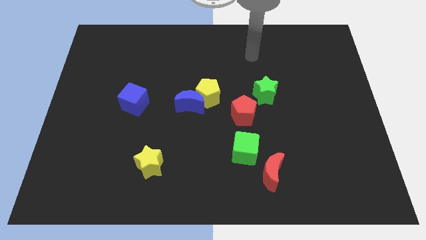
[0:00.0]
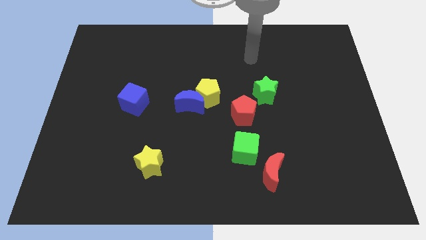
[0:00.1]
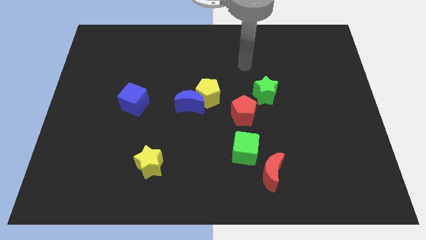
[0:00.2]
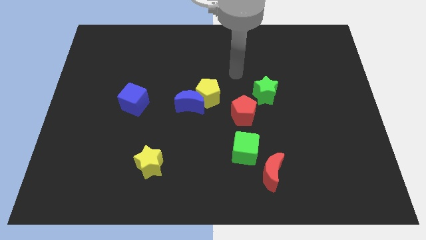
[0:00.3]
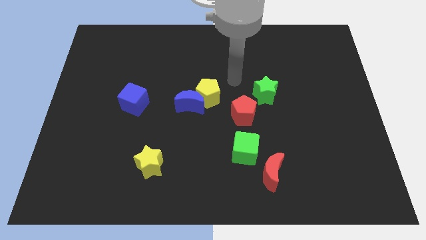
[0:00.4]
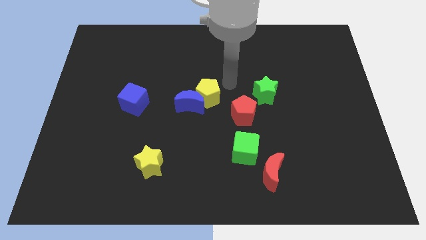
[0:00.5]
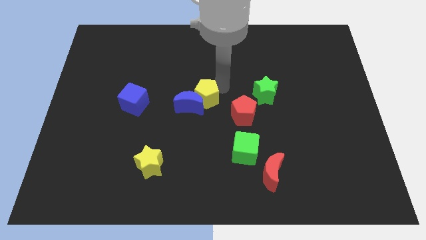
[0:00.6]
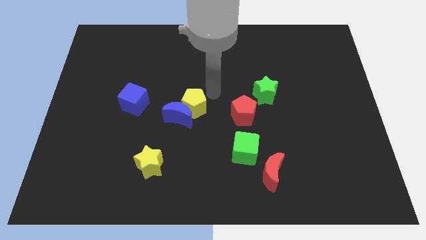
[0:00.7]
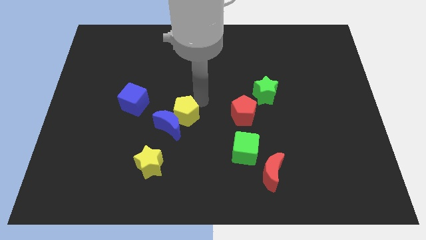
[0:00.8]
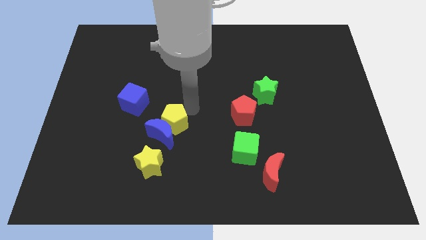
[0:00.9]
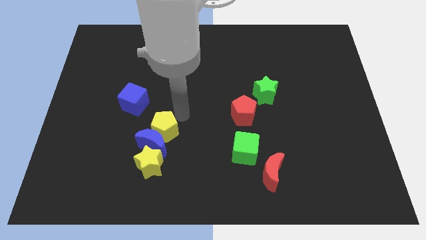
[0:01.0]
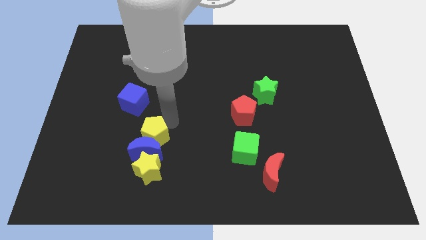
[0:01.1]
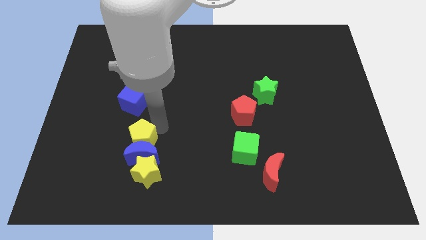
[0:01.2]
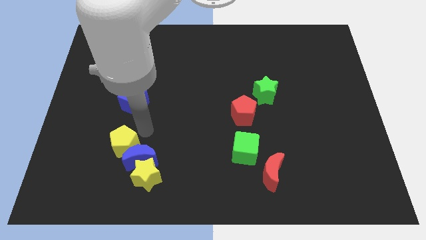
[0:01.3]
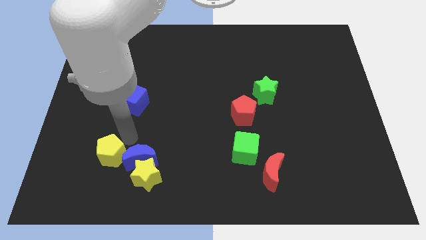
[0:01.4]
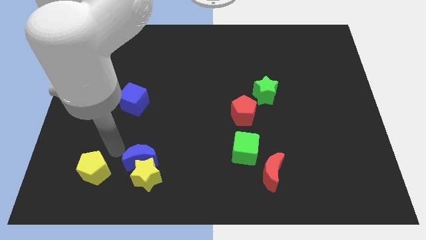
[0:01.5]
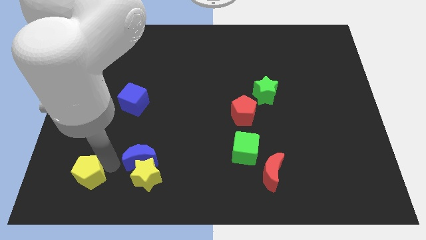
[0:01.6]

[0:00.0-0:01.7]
pull the blue moon apart from the yellow pentagon

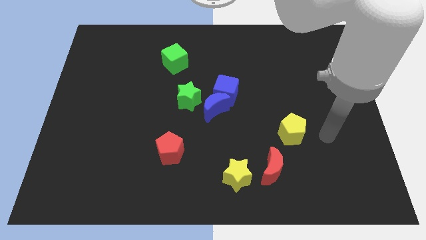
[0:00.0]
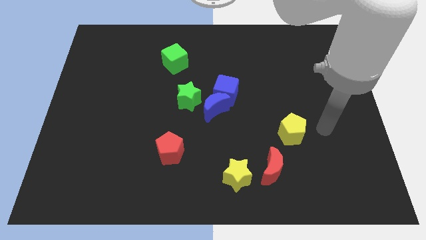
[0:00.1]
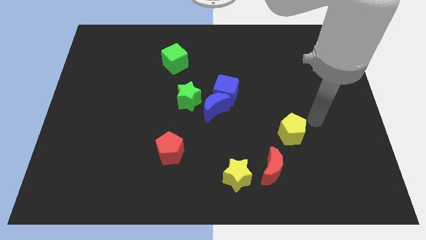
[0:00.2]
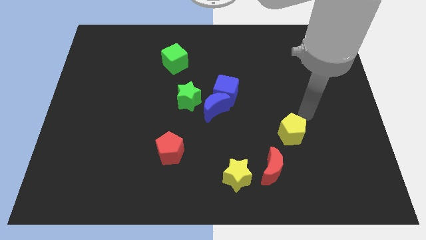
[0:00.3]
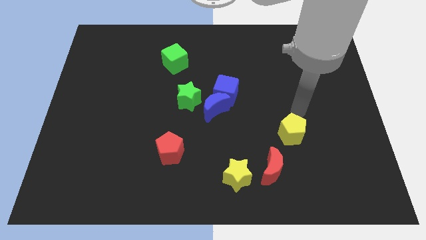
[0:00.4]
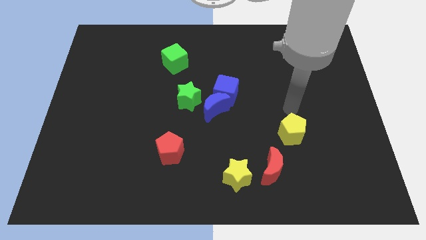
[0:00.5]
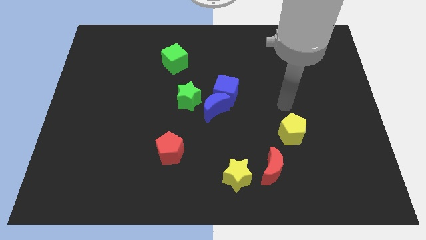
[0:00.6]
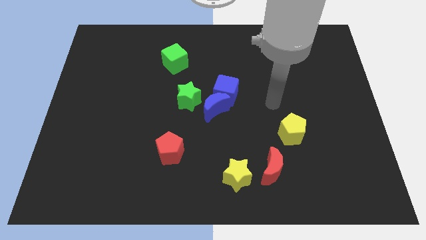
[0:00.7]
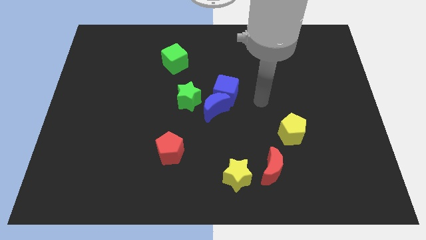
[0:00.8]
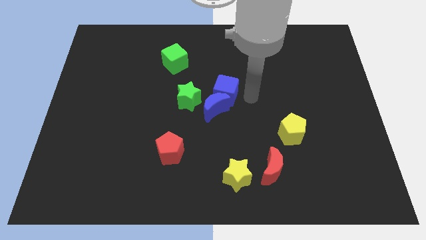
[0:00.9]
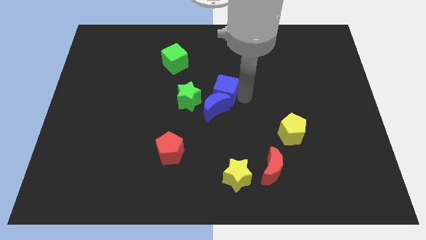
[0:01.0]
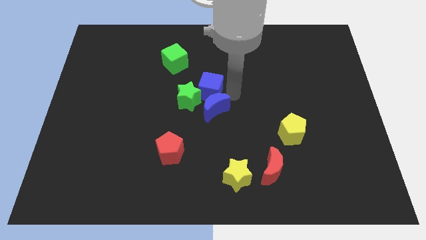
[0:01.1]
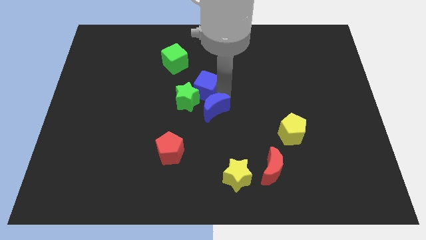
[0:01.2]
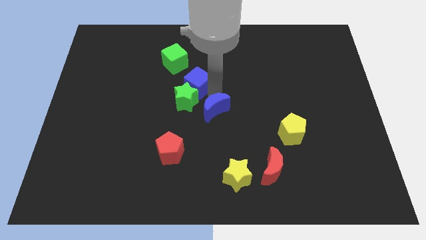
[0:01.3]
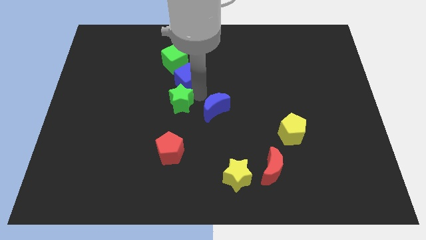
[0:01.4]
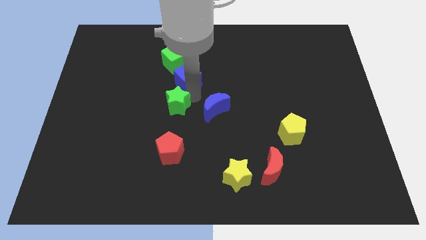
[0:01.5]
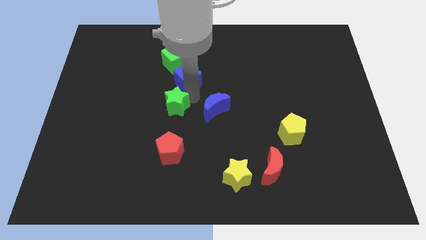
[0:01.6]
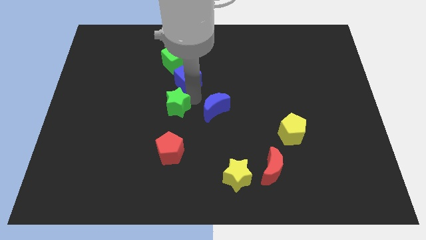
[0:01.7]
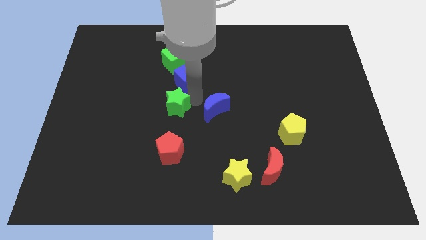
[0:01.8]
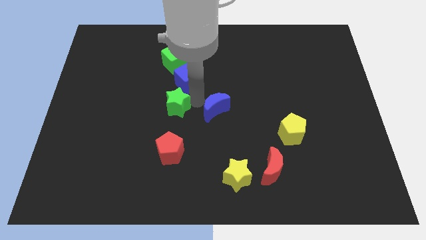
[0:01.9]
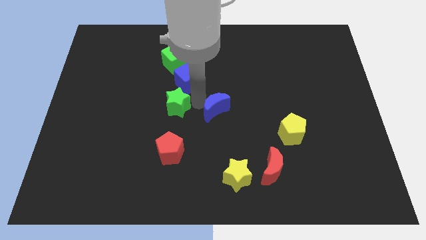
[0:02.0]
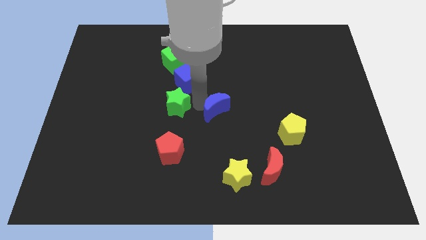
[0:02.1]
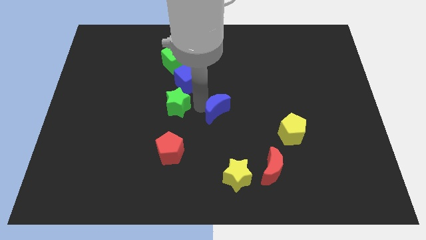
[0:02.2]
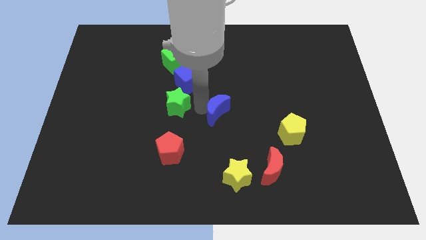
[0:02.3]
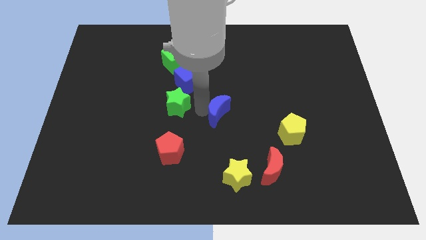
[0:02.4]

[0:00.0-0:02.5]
separate the blue moon from the blue cube and green star

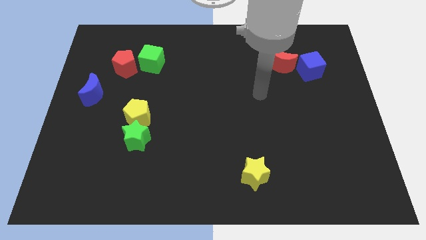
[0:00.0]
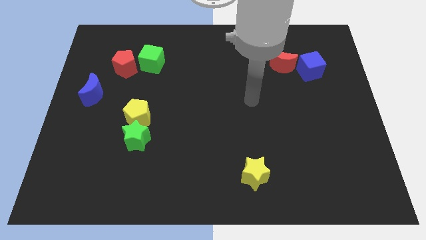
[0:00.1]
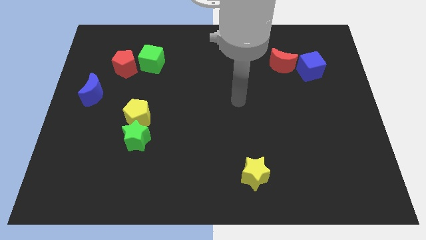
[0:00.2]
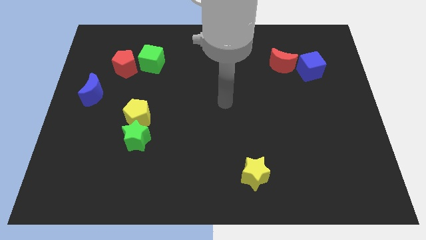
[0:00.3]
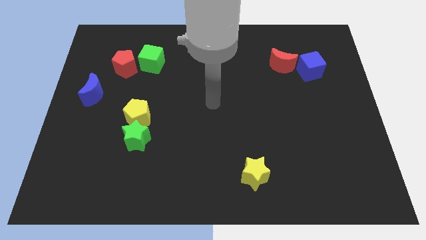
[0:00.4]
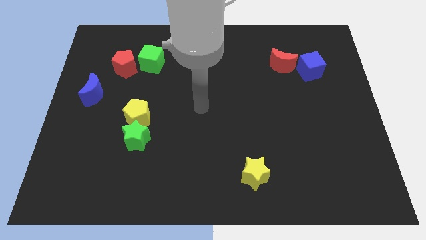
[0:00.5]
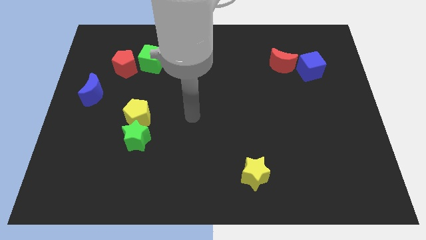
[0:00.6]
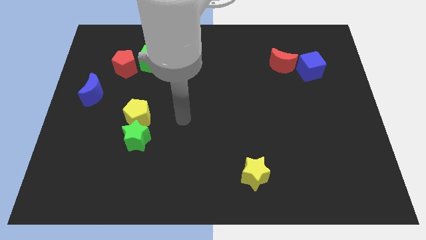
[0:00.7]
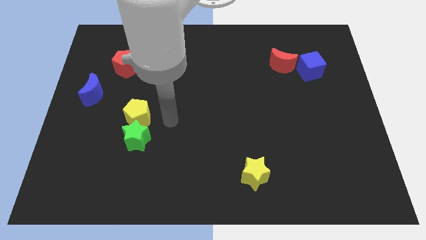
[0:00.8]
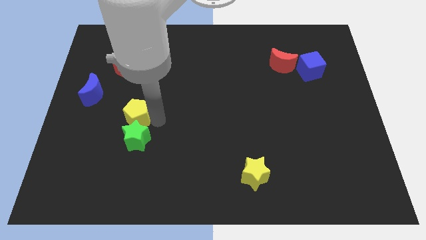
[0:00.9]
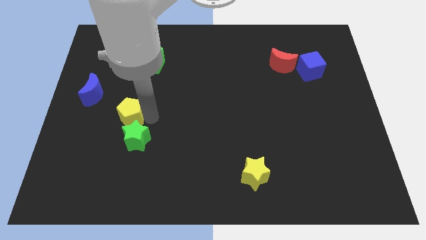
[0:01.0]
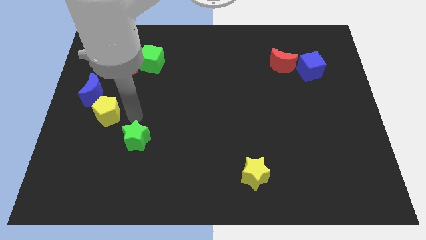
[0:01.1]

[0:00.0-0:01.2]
separate the green star from the yellow pentagon

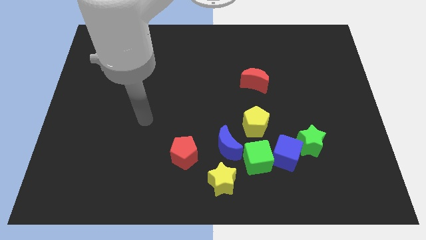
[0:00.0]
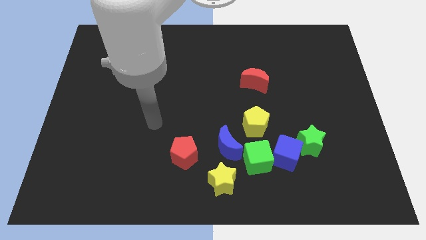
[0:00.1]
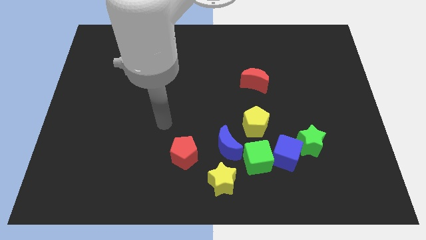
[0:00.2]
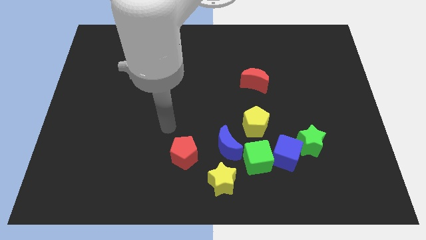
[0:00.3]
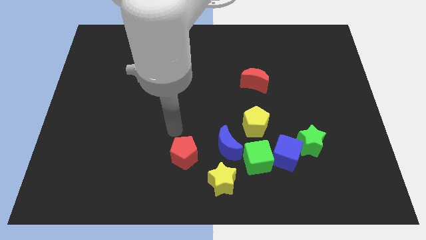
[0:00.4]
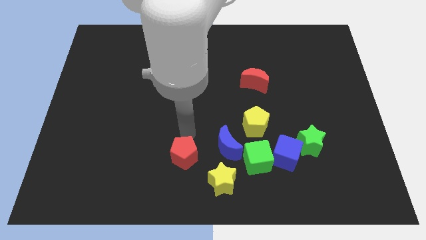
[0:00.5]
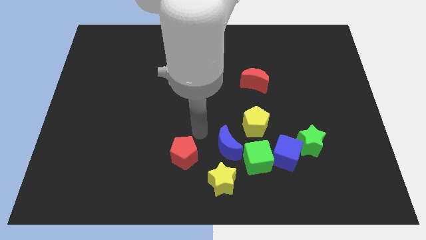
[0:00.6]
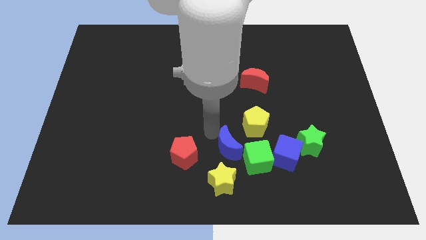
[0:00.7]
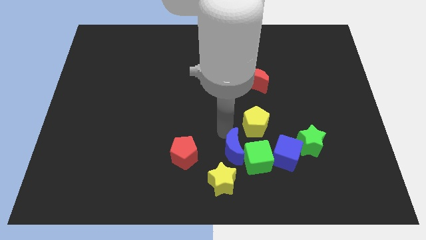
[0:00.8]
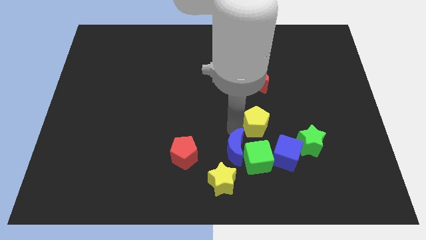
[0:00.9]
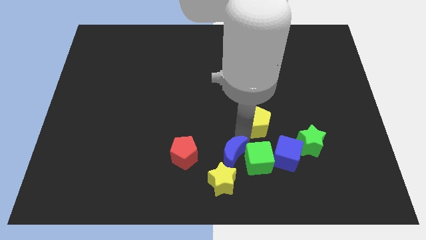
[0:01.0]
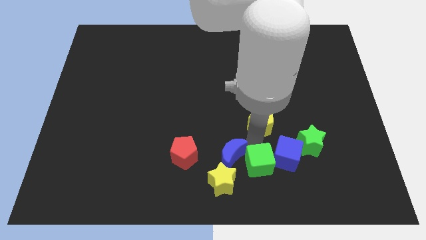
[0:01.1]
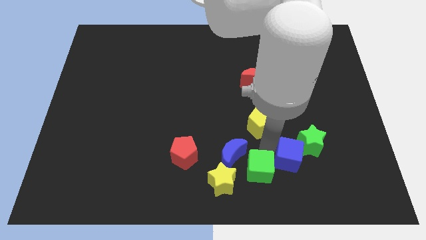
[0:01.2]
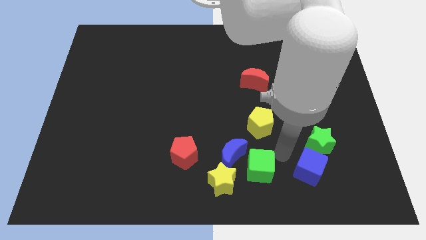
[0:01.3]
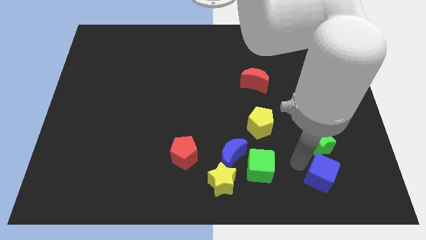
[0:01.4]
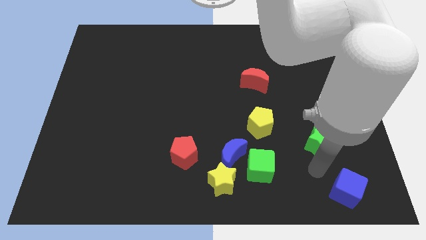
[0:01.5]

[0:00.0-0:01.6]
separate the green star from the blue cube

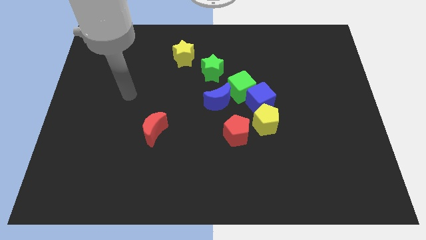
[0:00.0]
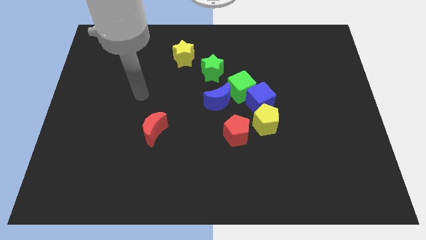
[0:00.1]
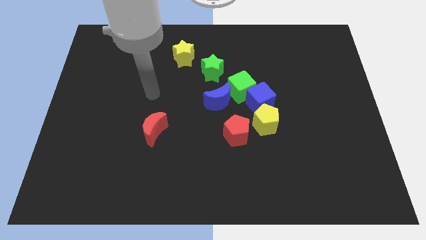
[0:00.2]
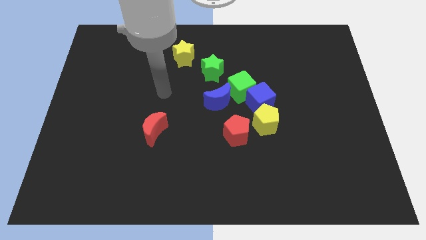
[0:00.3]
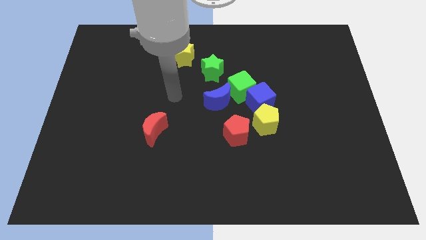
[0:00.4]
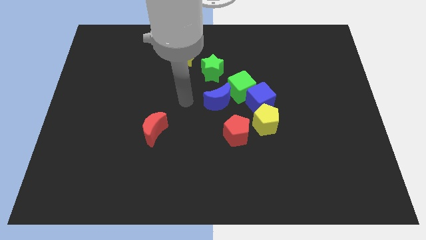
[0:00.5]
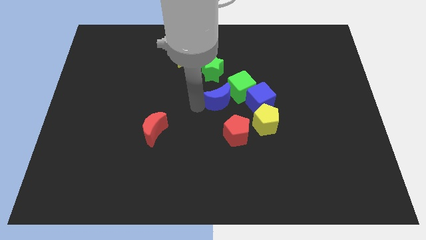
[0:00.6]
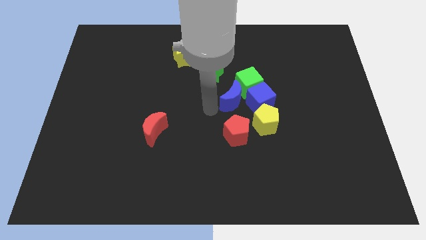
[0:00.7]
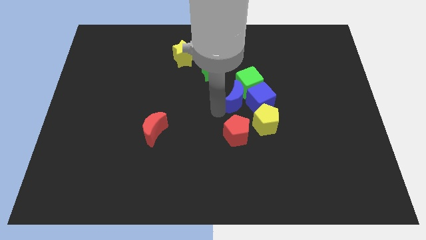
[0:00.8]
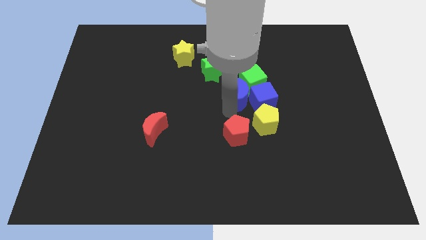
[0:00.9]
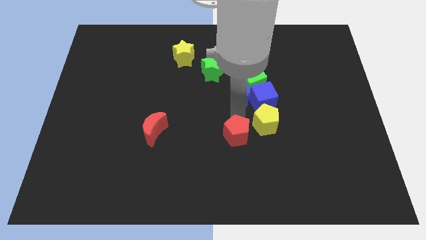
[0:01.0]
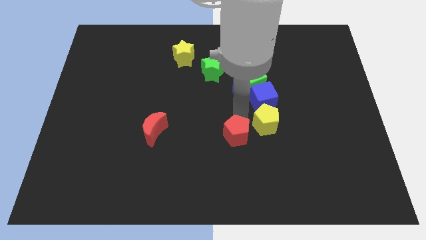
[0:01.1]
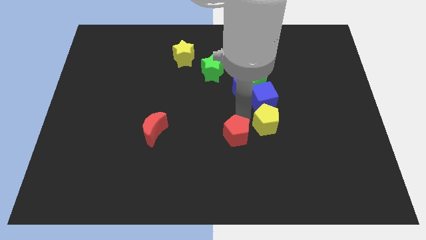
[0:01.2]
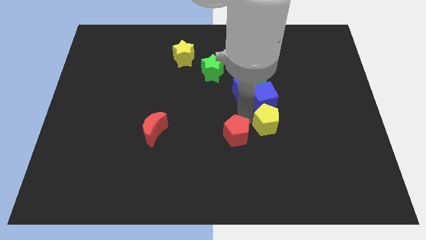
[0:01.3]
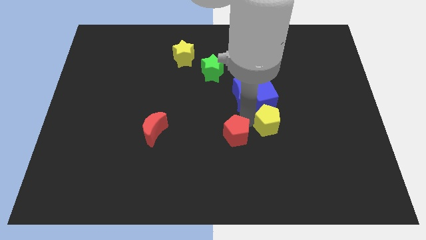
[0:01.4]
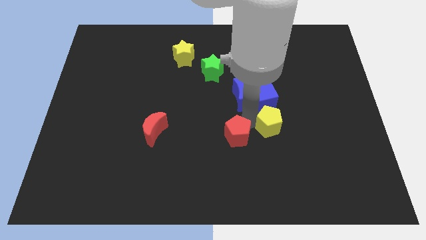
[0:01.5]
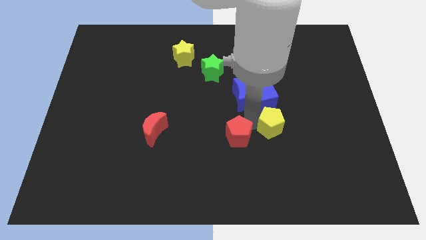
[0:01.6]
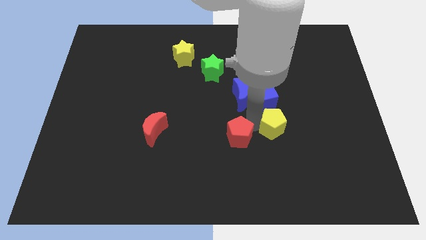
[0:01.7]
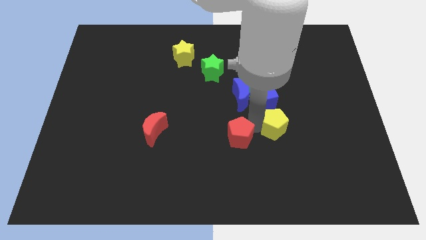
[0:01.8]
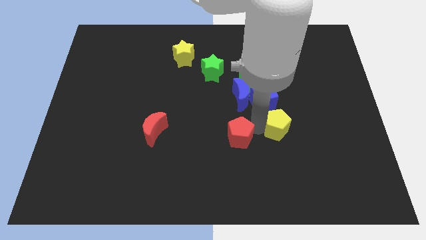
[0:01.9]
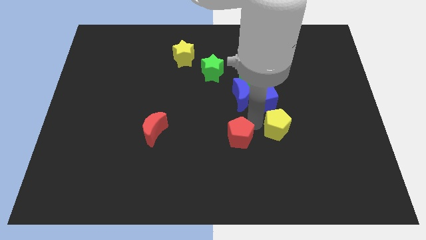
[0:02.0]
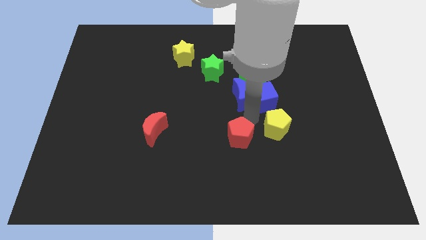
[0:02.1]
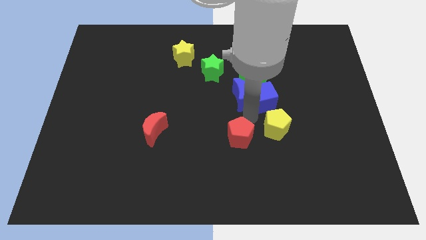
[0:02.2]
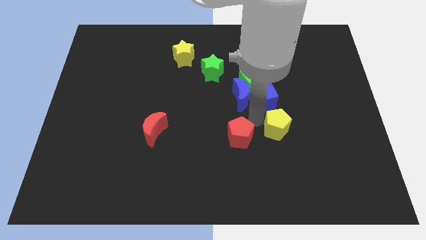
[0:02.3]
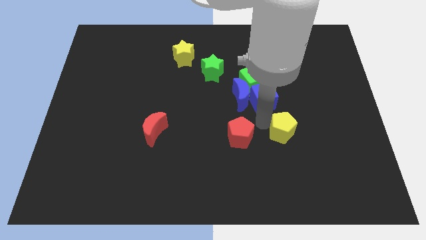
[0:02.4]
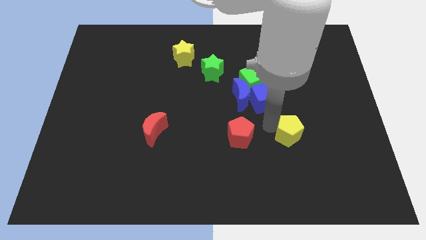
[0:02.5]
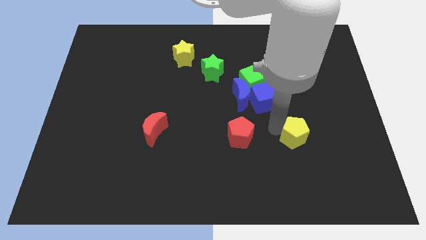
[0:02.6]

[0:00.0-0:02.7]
pull the yellow pentagon apart from the blue cube and red pentagon
